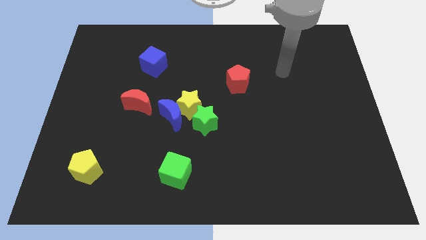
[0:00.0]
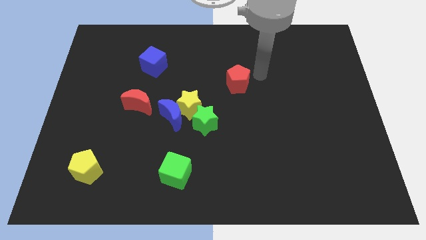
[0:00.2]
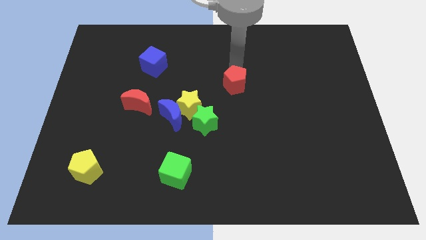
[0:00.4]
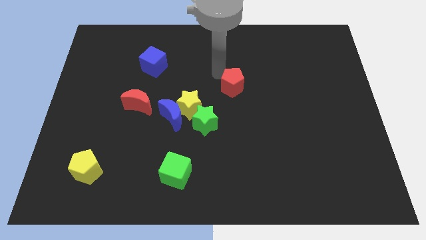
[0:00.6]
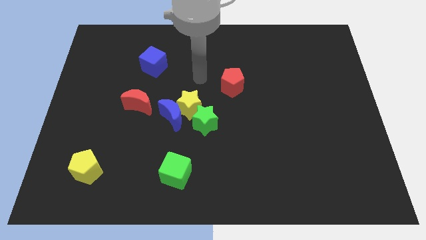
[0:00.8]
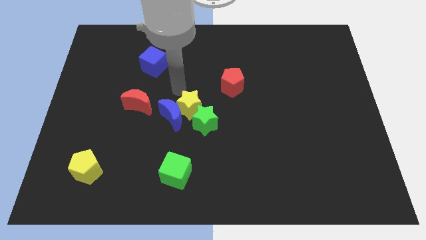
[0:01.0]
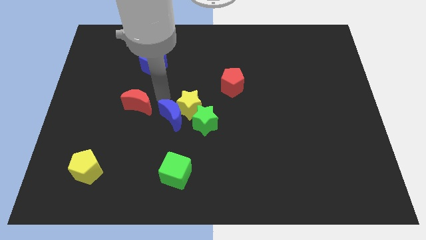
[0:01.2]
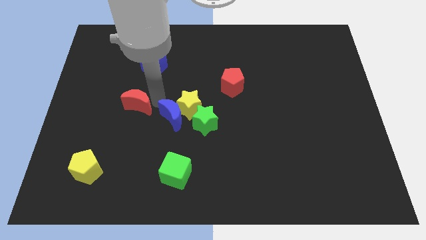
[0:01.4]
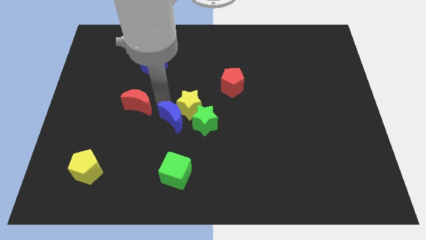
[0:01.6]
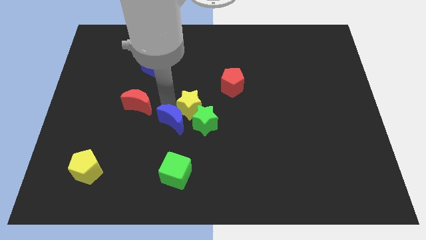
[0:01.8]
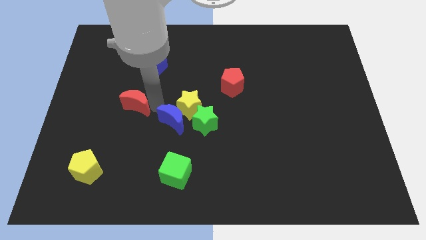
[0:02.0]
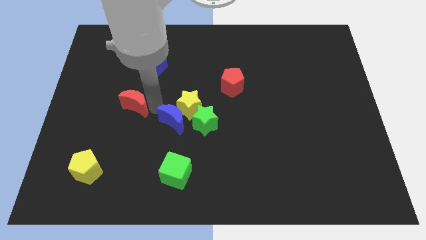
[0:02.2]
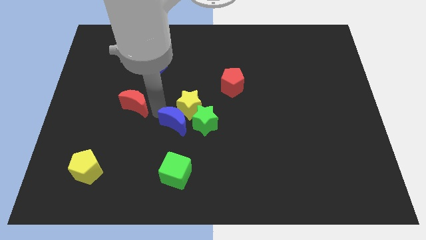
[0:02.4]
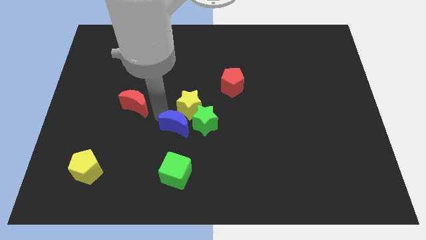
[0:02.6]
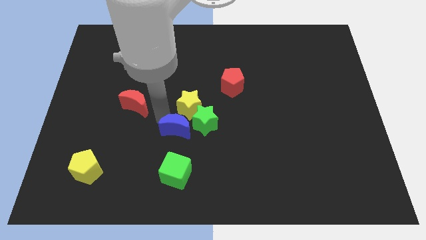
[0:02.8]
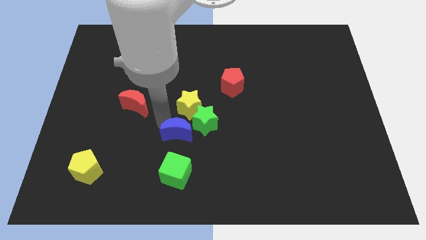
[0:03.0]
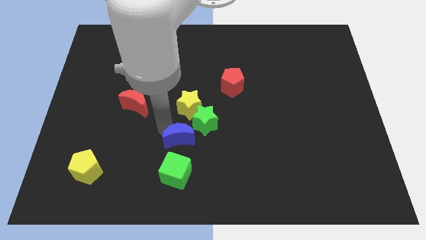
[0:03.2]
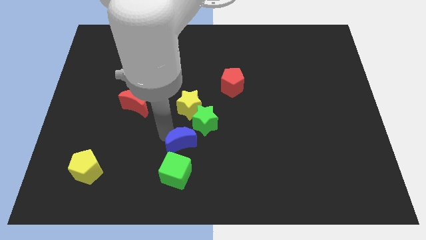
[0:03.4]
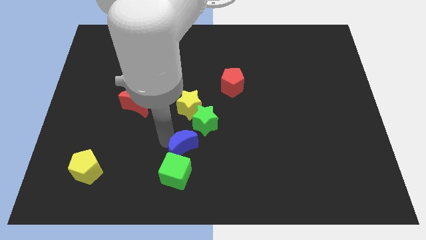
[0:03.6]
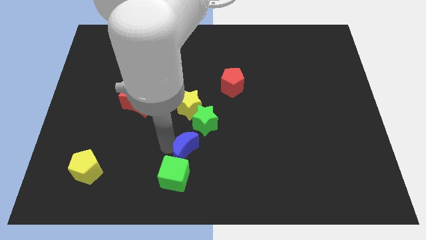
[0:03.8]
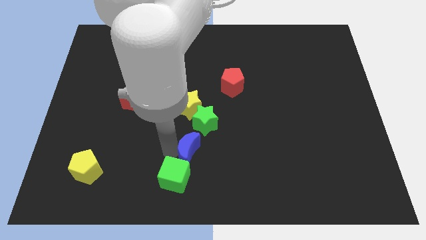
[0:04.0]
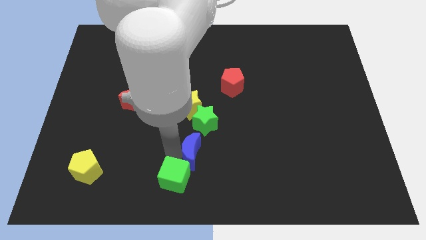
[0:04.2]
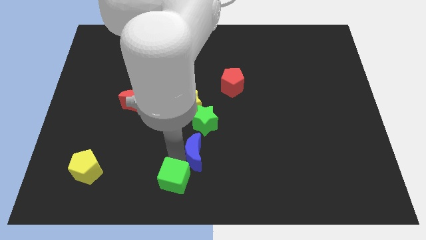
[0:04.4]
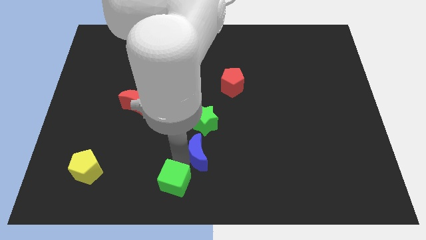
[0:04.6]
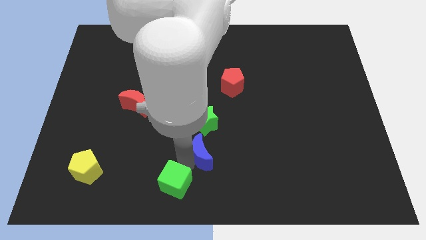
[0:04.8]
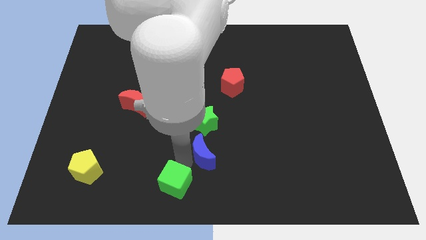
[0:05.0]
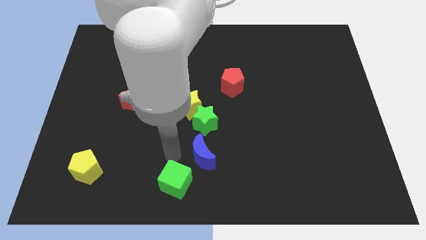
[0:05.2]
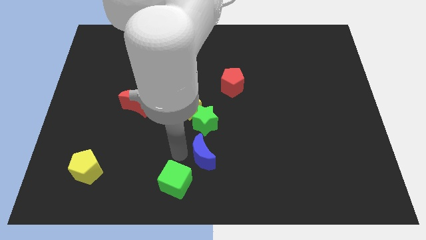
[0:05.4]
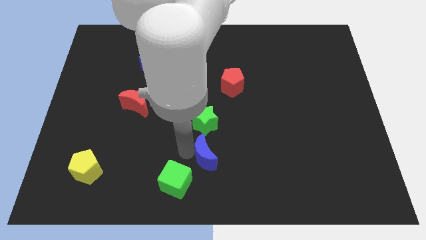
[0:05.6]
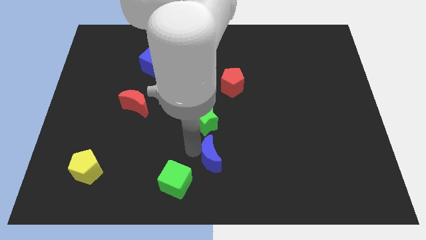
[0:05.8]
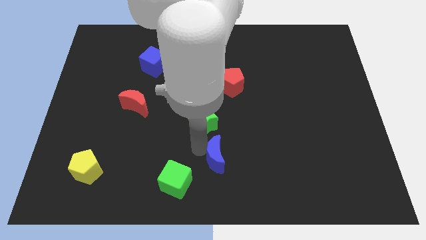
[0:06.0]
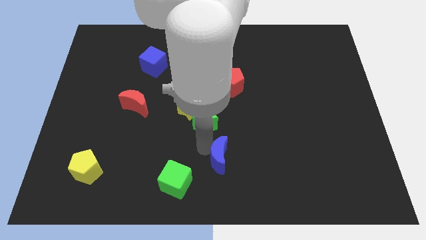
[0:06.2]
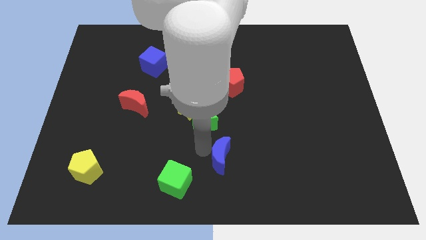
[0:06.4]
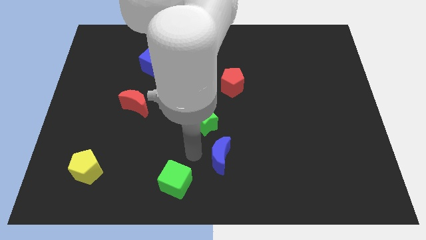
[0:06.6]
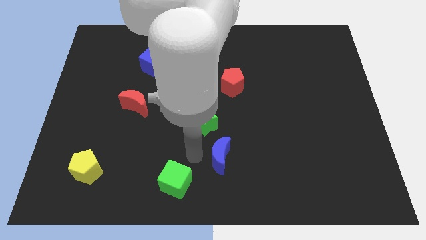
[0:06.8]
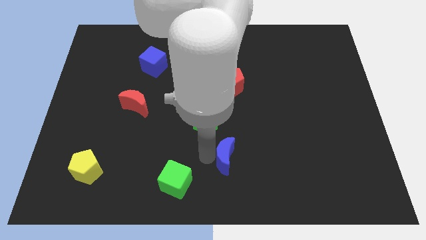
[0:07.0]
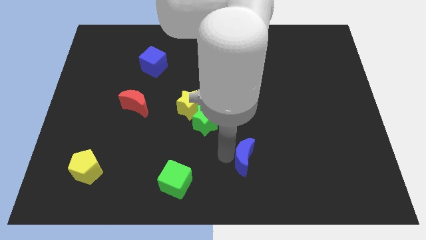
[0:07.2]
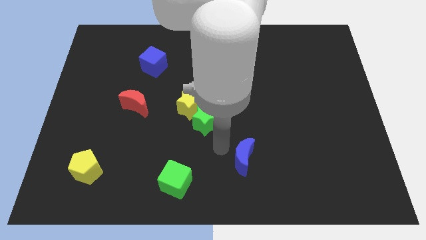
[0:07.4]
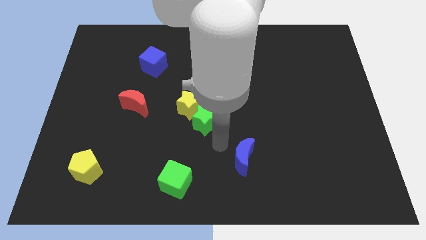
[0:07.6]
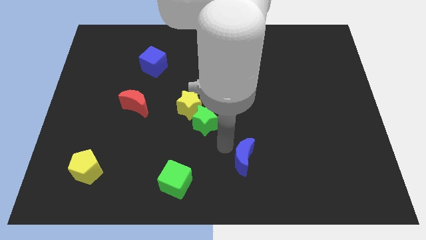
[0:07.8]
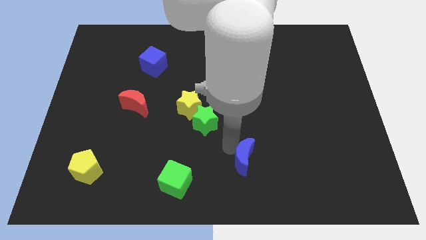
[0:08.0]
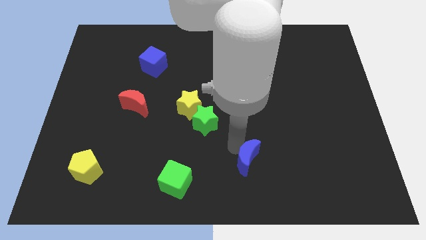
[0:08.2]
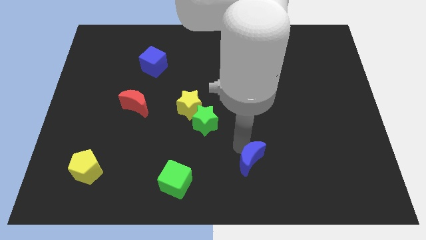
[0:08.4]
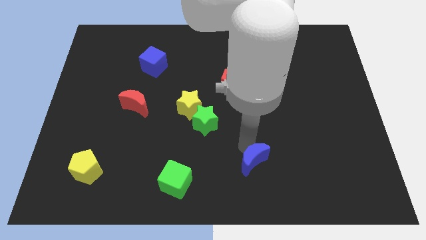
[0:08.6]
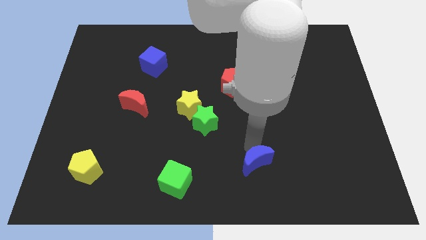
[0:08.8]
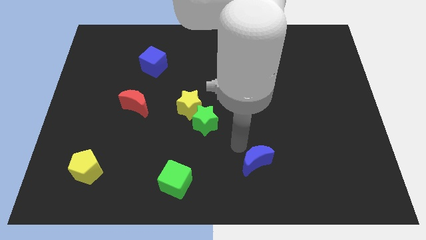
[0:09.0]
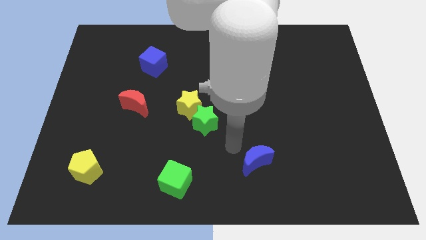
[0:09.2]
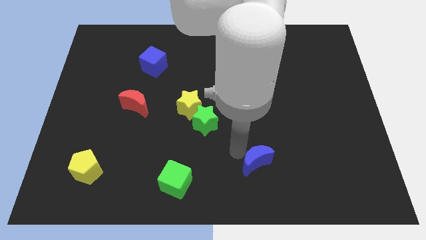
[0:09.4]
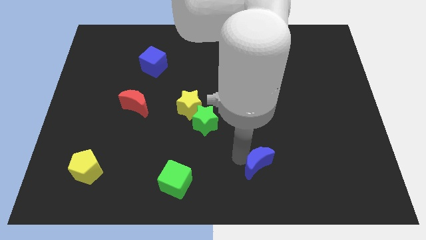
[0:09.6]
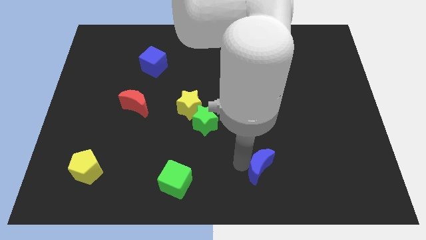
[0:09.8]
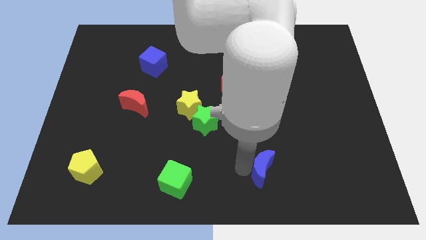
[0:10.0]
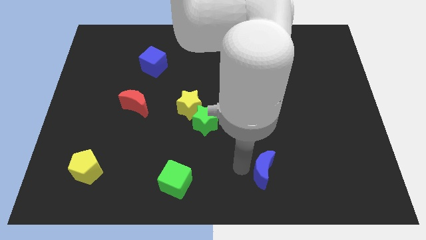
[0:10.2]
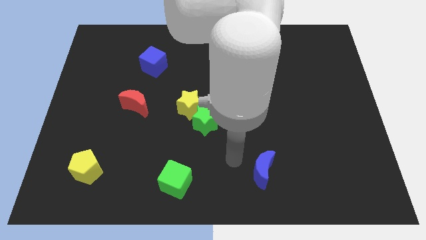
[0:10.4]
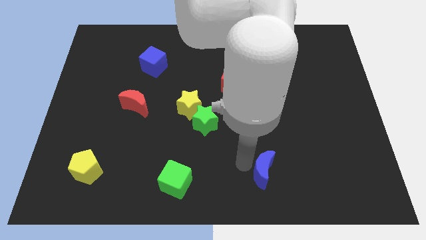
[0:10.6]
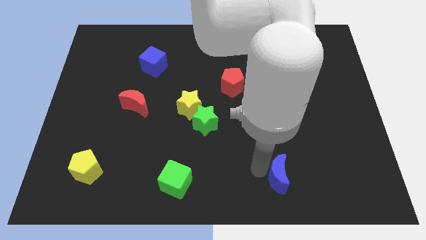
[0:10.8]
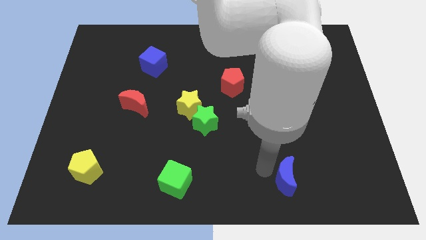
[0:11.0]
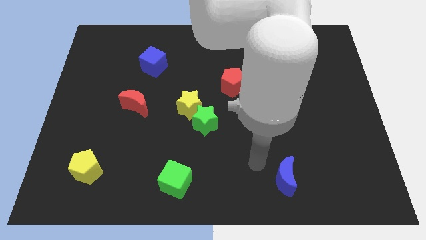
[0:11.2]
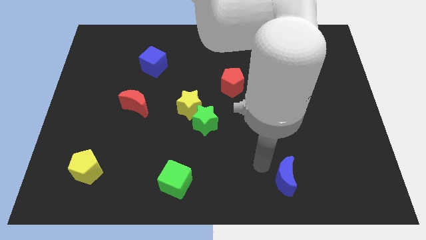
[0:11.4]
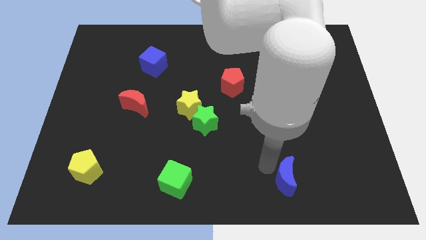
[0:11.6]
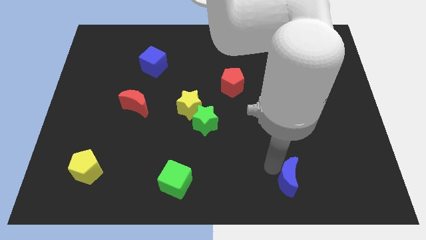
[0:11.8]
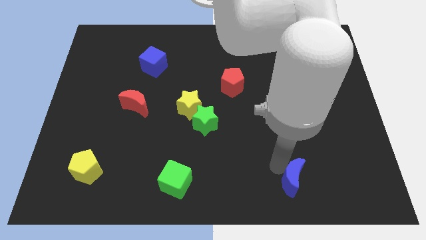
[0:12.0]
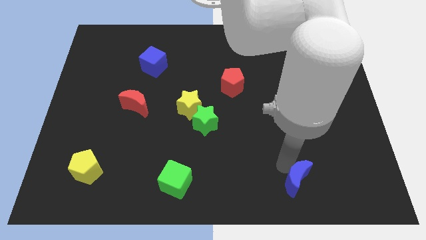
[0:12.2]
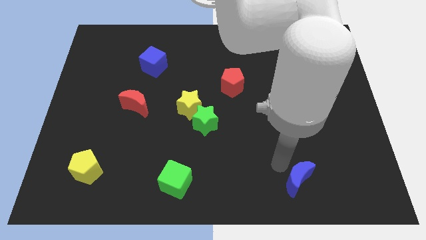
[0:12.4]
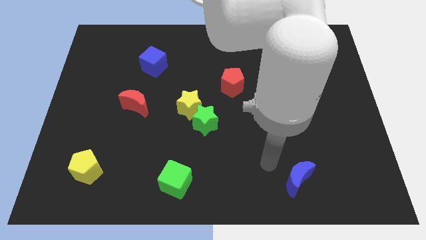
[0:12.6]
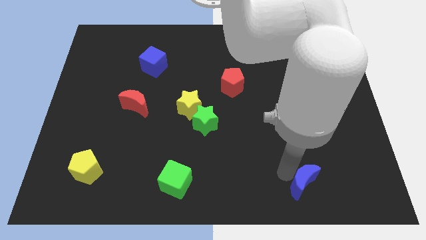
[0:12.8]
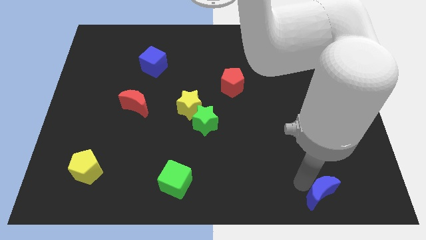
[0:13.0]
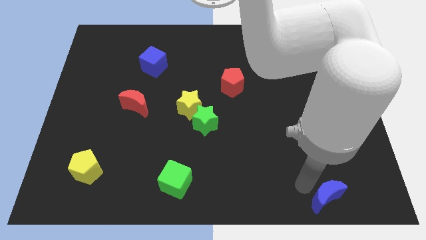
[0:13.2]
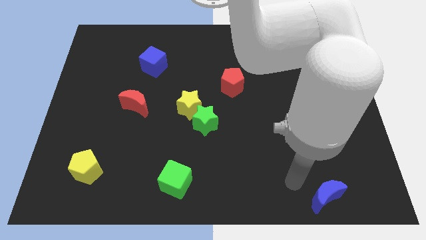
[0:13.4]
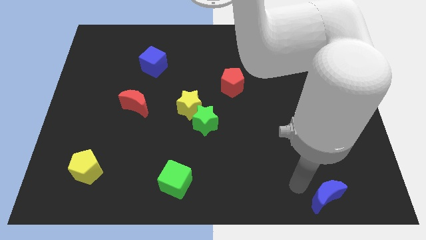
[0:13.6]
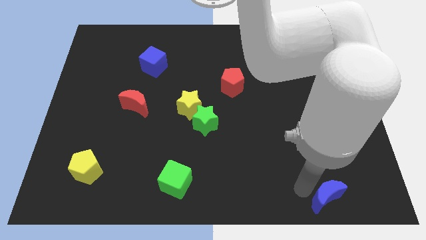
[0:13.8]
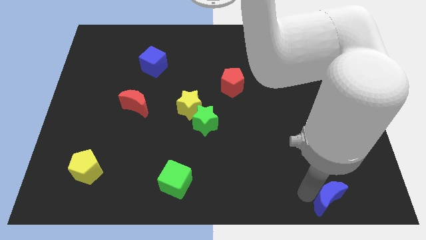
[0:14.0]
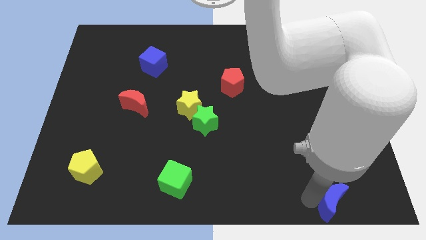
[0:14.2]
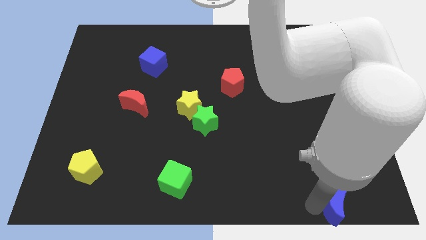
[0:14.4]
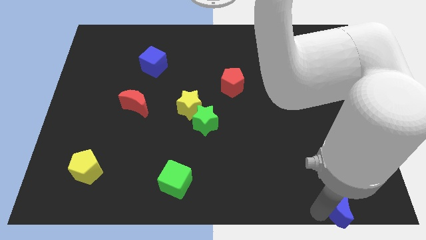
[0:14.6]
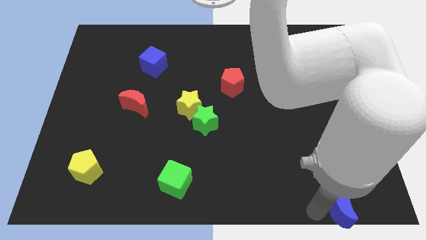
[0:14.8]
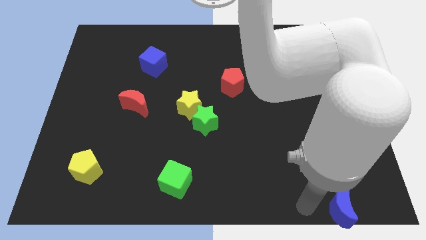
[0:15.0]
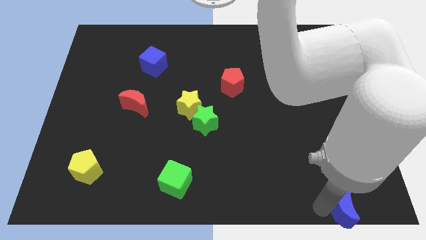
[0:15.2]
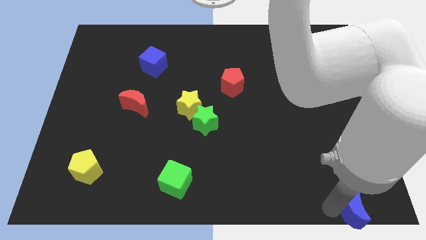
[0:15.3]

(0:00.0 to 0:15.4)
move the blue moon to the bottom right
